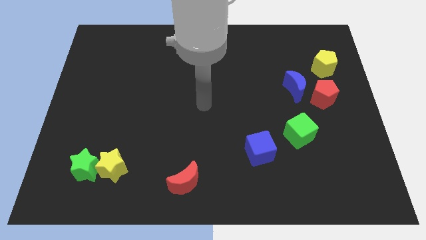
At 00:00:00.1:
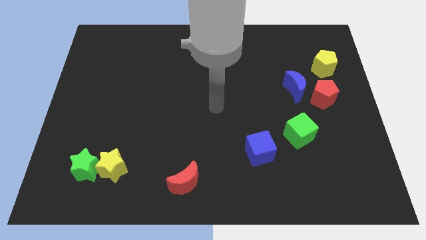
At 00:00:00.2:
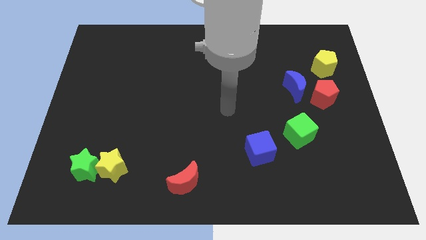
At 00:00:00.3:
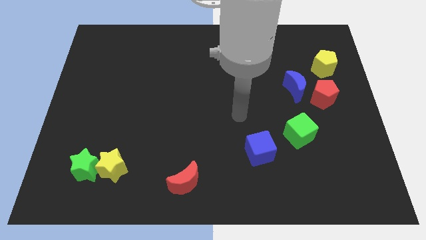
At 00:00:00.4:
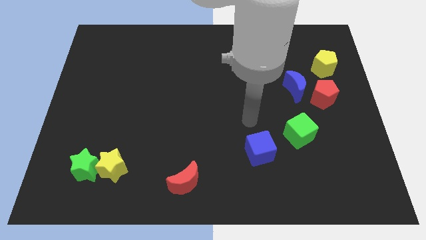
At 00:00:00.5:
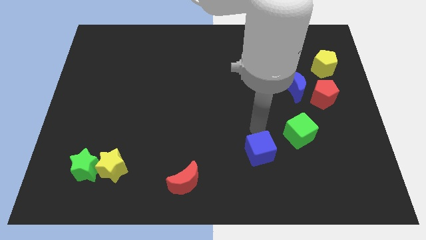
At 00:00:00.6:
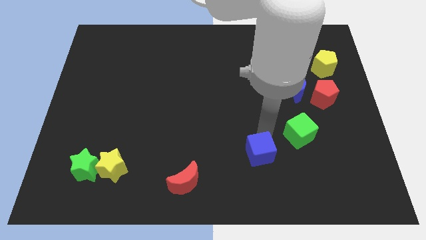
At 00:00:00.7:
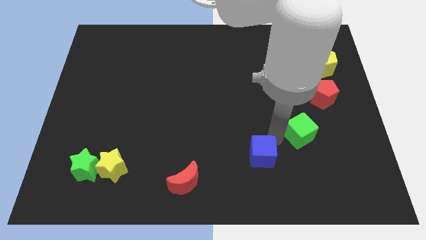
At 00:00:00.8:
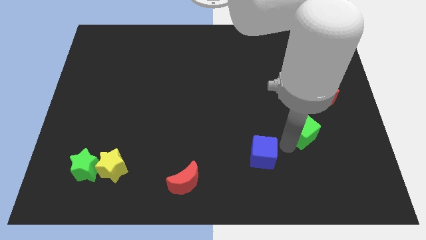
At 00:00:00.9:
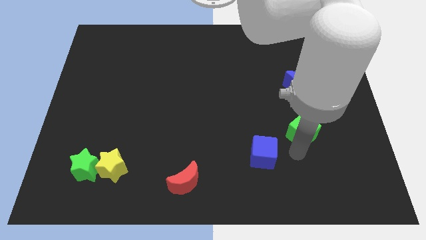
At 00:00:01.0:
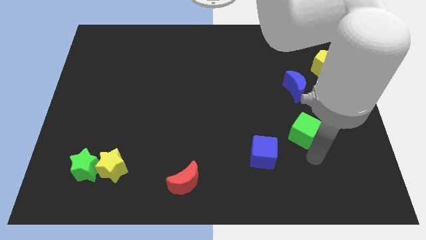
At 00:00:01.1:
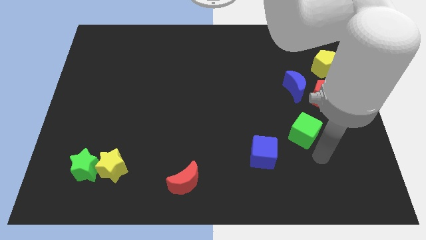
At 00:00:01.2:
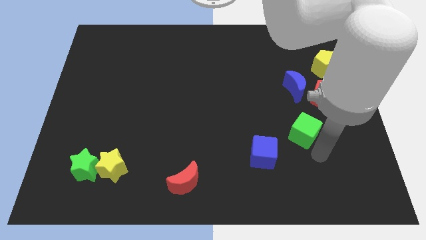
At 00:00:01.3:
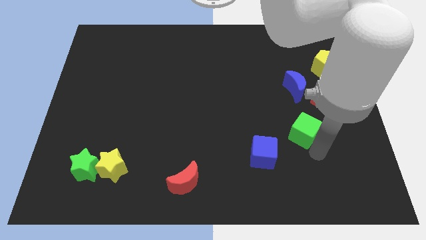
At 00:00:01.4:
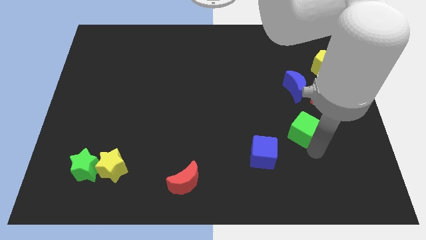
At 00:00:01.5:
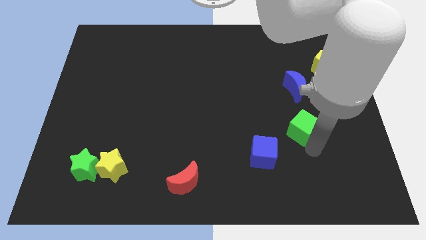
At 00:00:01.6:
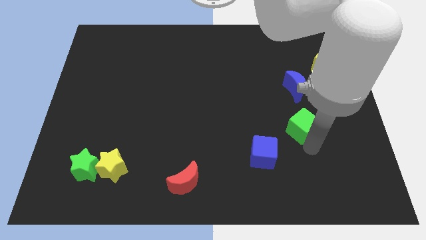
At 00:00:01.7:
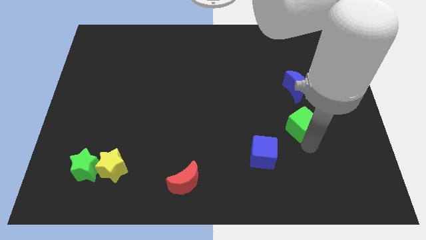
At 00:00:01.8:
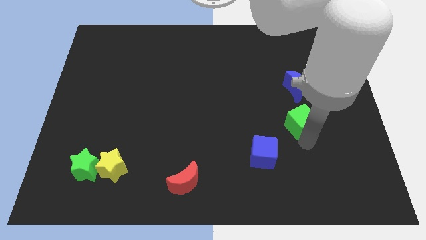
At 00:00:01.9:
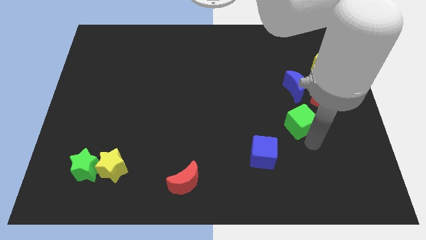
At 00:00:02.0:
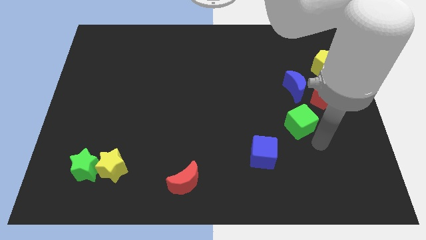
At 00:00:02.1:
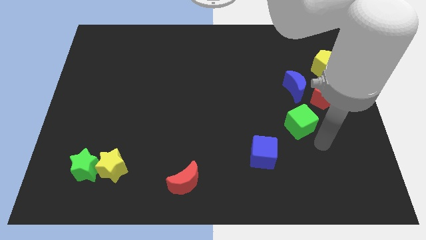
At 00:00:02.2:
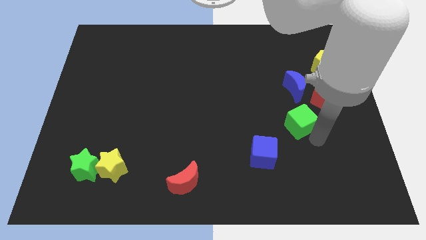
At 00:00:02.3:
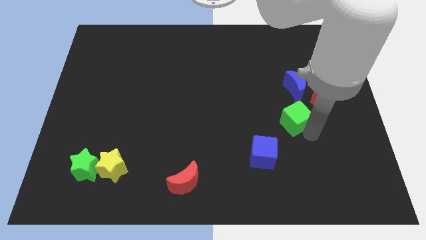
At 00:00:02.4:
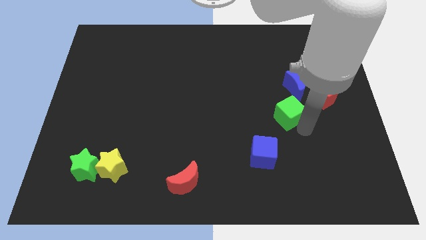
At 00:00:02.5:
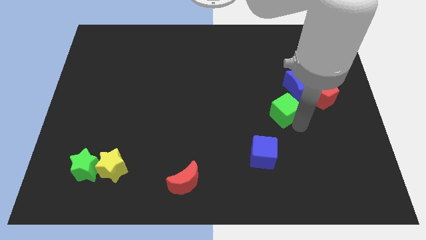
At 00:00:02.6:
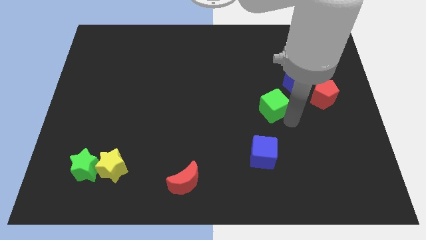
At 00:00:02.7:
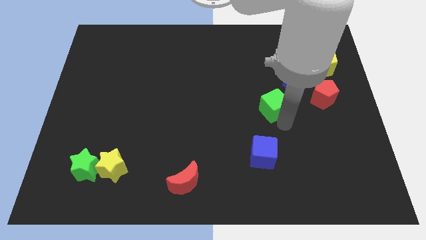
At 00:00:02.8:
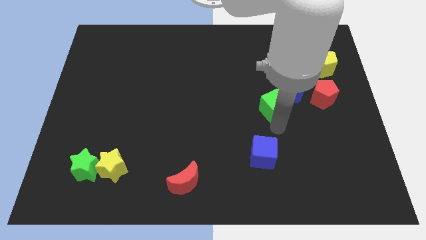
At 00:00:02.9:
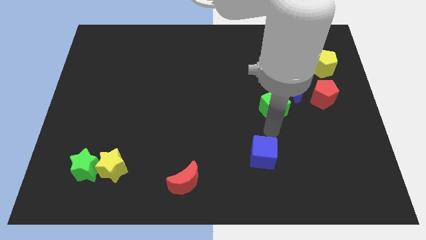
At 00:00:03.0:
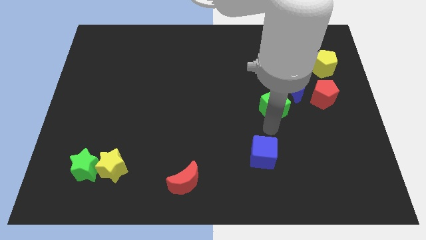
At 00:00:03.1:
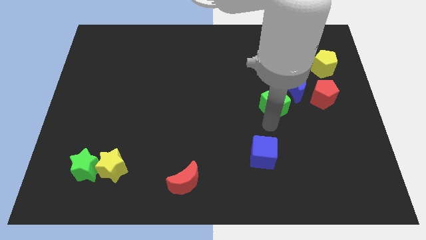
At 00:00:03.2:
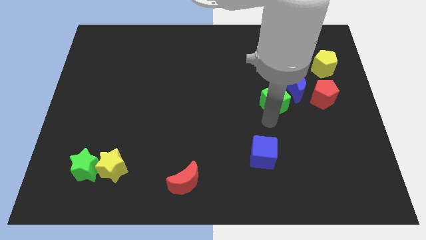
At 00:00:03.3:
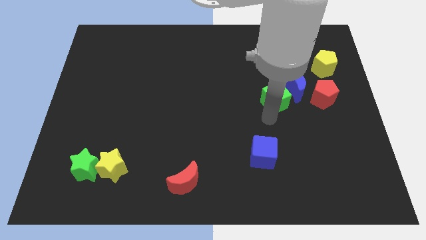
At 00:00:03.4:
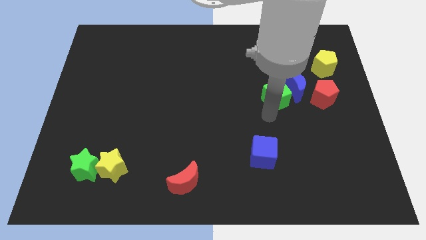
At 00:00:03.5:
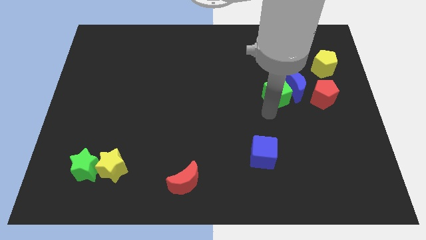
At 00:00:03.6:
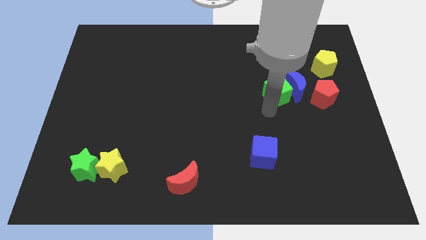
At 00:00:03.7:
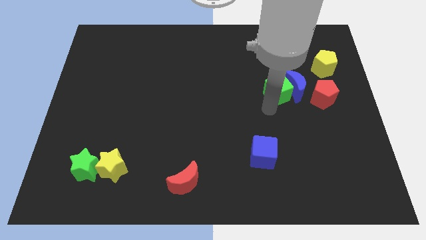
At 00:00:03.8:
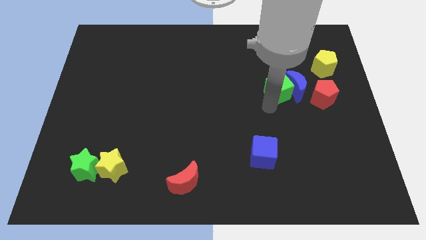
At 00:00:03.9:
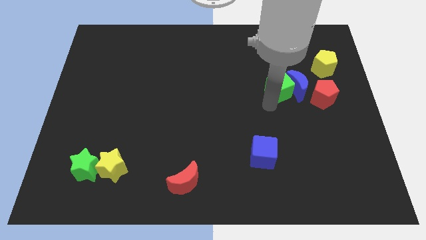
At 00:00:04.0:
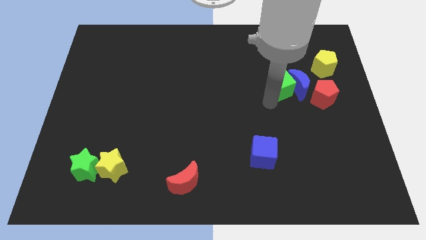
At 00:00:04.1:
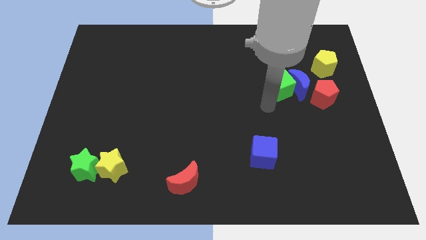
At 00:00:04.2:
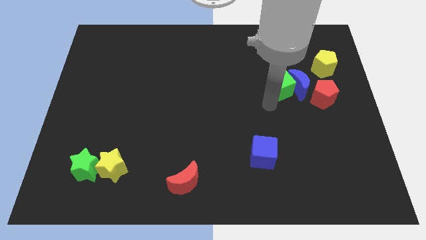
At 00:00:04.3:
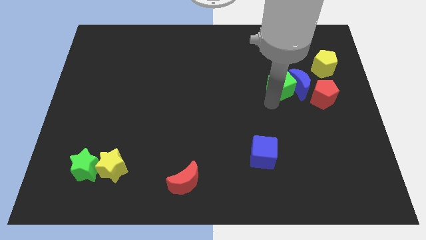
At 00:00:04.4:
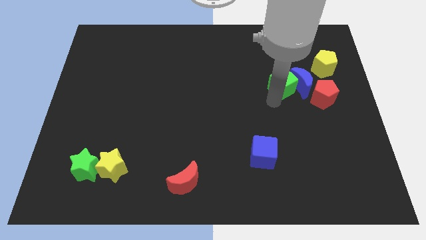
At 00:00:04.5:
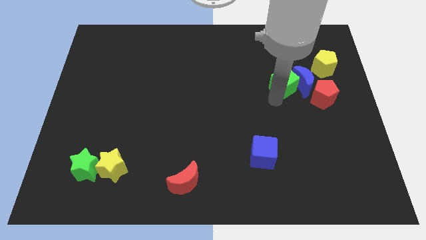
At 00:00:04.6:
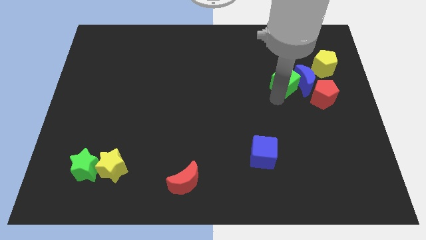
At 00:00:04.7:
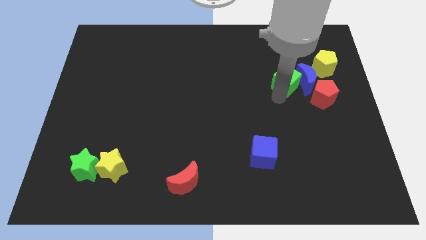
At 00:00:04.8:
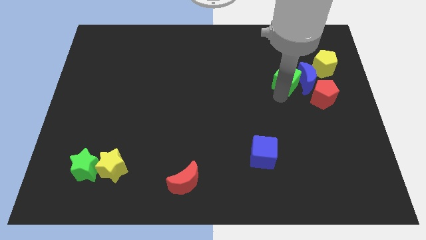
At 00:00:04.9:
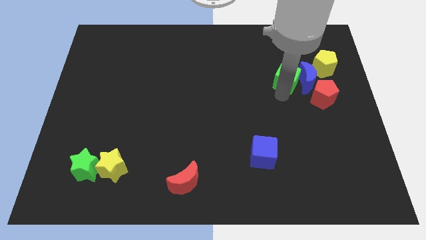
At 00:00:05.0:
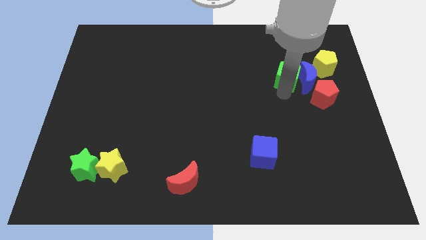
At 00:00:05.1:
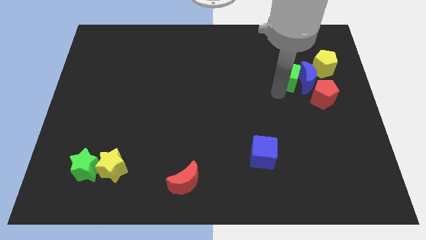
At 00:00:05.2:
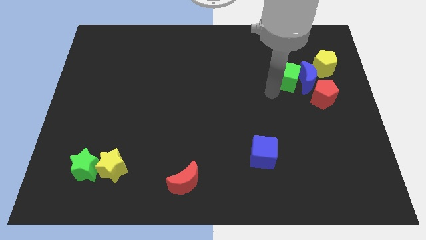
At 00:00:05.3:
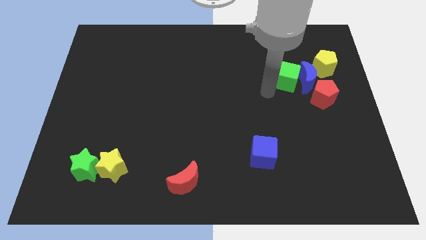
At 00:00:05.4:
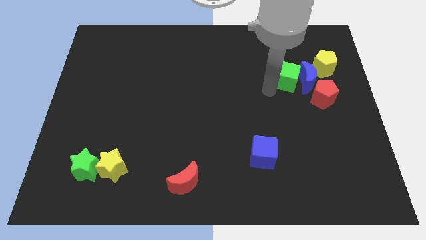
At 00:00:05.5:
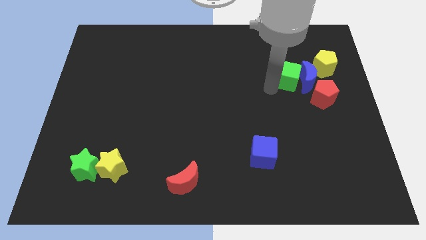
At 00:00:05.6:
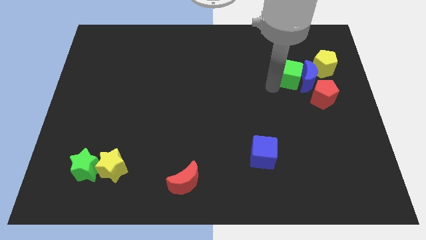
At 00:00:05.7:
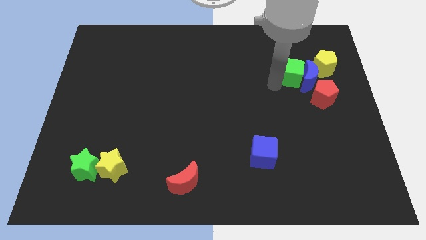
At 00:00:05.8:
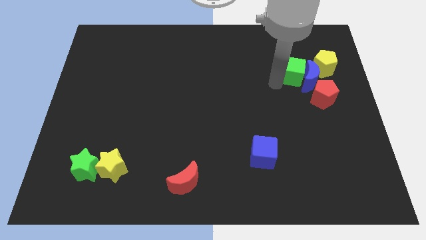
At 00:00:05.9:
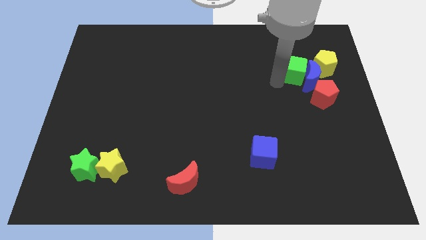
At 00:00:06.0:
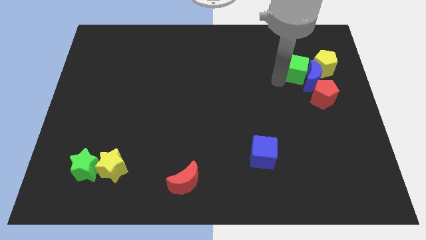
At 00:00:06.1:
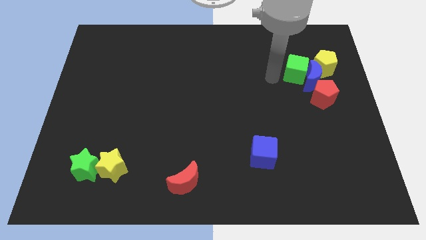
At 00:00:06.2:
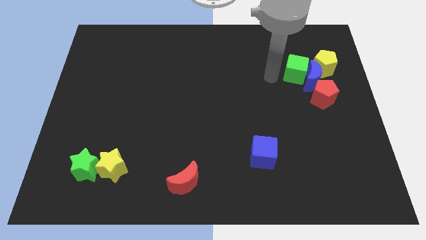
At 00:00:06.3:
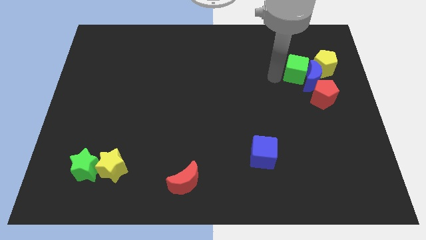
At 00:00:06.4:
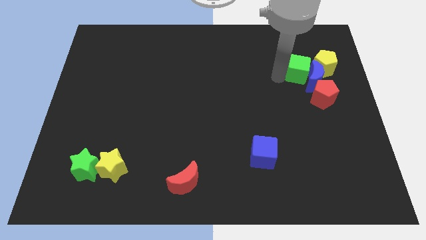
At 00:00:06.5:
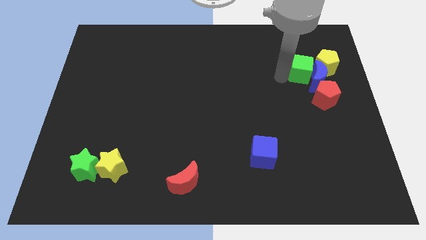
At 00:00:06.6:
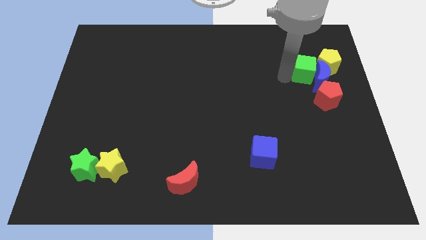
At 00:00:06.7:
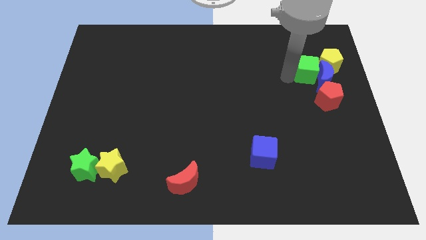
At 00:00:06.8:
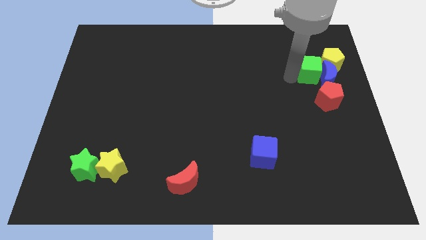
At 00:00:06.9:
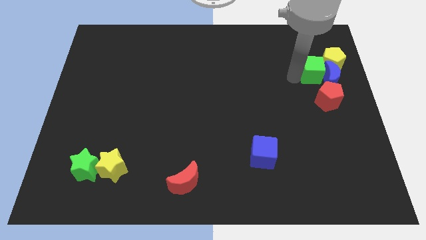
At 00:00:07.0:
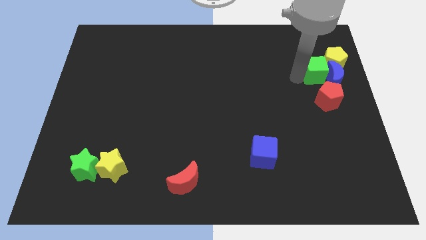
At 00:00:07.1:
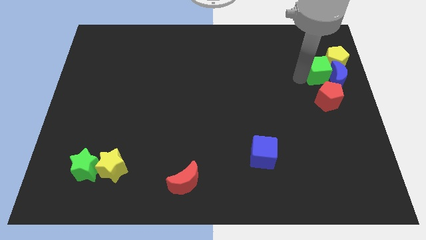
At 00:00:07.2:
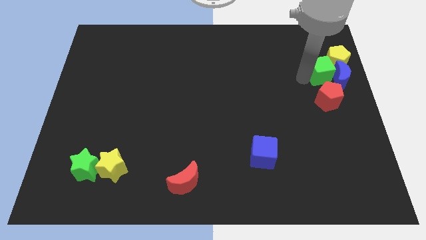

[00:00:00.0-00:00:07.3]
slide the green cube close to the yellow pentagon
